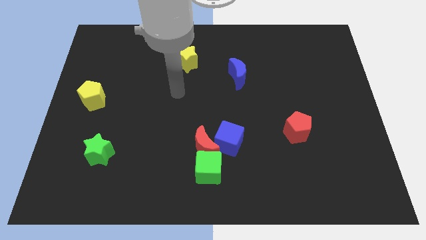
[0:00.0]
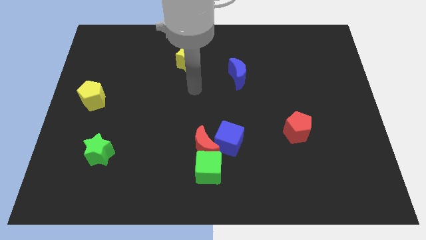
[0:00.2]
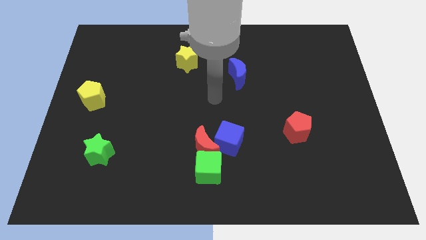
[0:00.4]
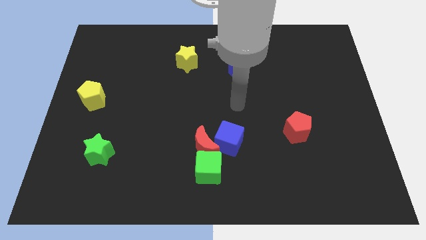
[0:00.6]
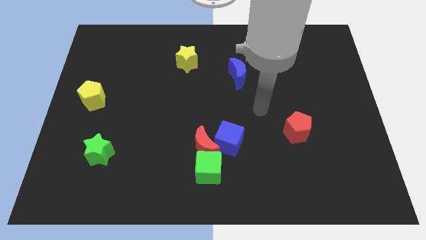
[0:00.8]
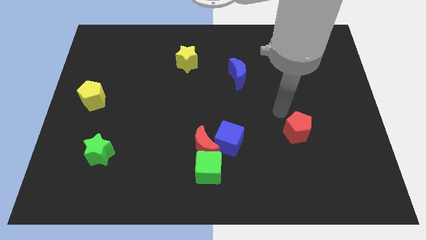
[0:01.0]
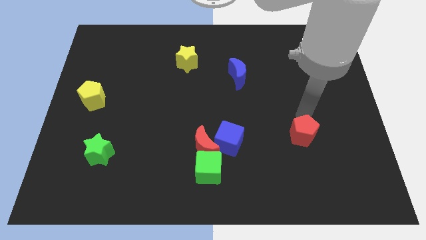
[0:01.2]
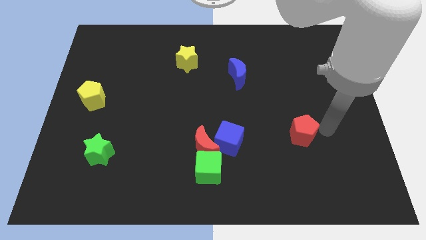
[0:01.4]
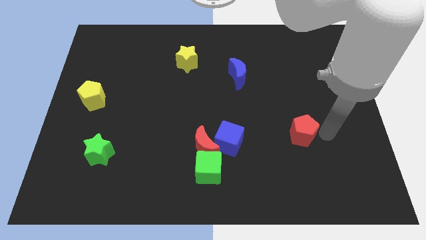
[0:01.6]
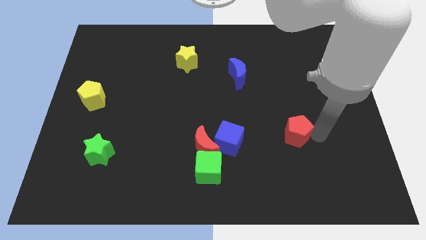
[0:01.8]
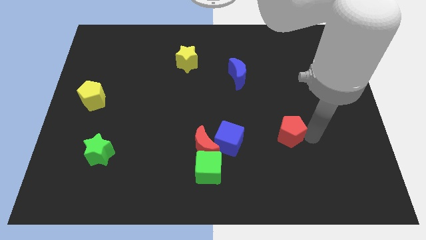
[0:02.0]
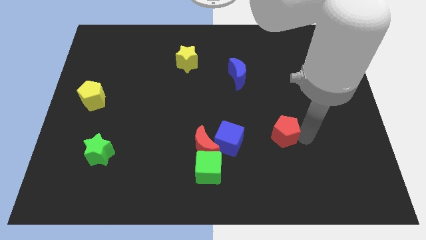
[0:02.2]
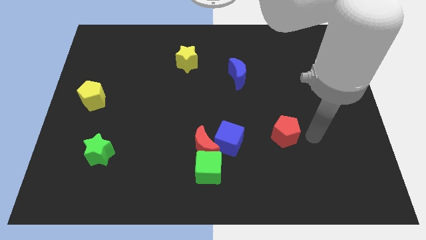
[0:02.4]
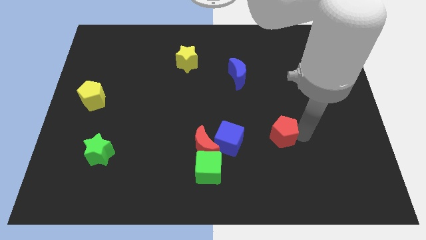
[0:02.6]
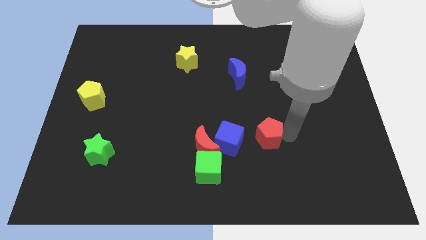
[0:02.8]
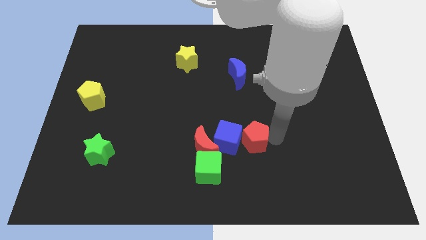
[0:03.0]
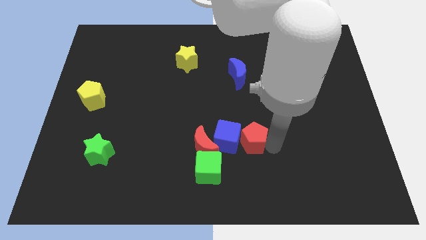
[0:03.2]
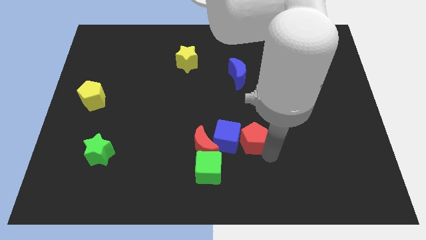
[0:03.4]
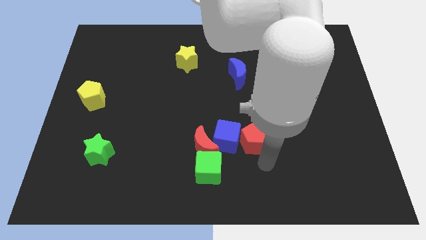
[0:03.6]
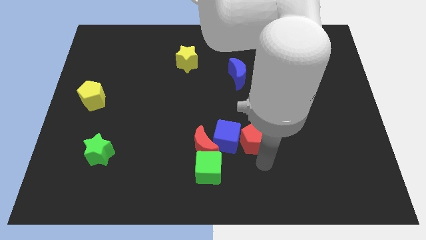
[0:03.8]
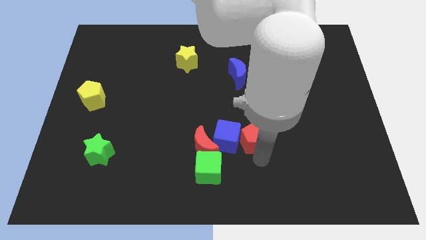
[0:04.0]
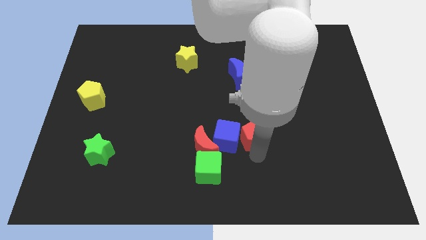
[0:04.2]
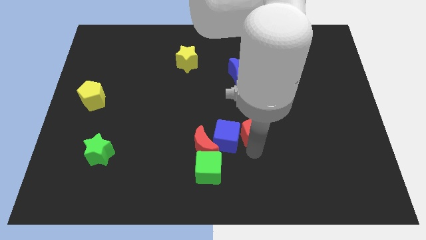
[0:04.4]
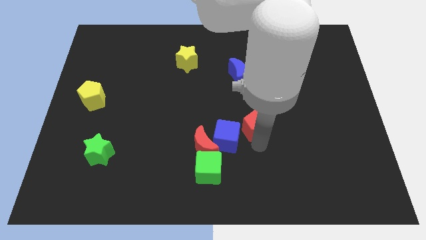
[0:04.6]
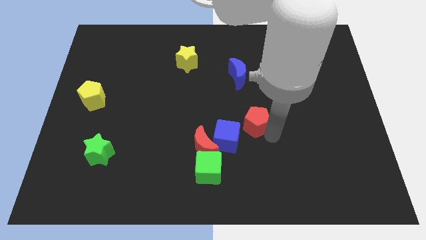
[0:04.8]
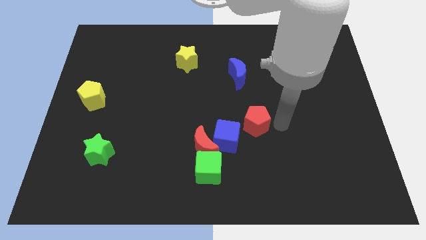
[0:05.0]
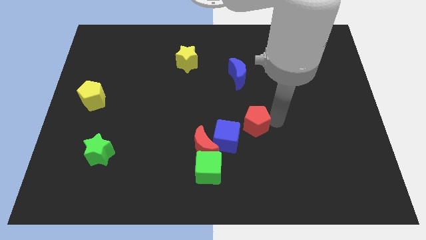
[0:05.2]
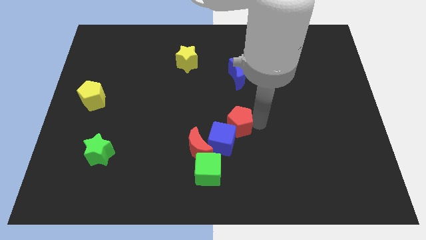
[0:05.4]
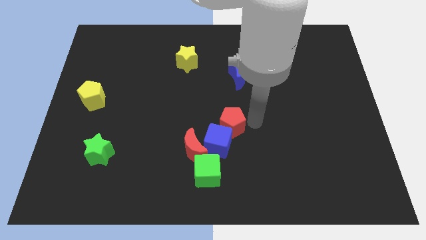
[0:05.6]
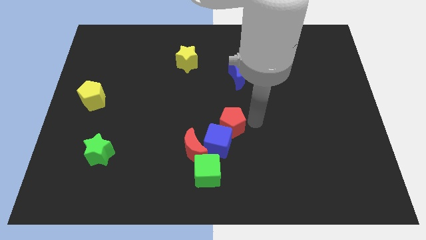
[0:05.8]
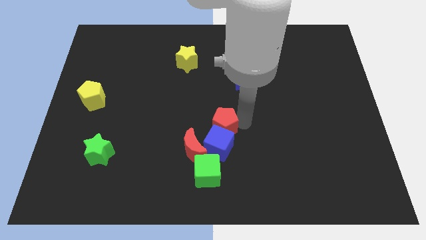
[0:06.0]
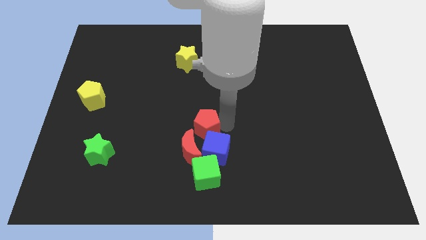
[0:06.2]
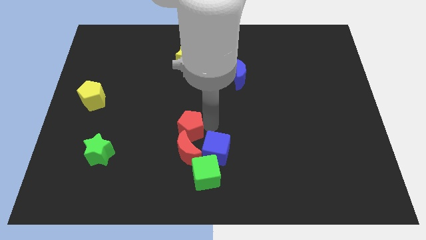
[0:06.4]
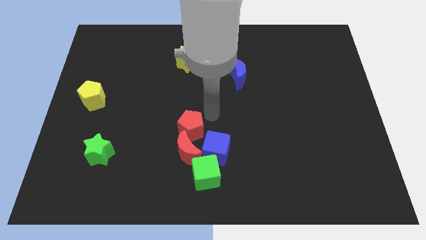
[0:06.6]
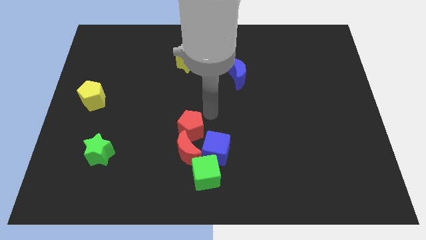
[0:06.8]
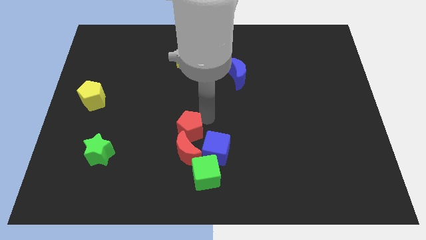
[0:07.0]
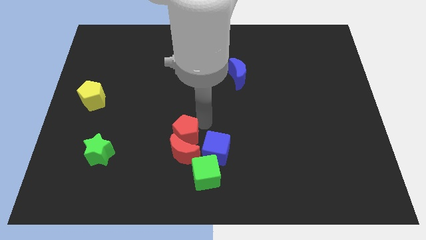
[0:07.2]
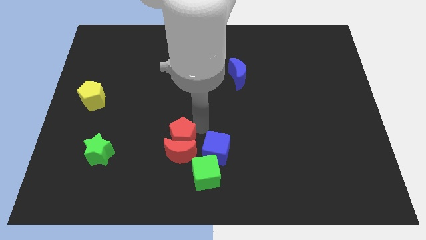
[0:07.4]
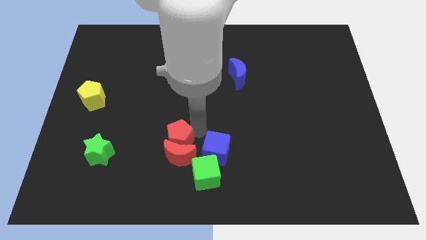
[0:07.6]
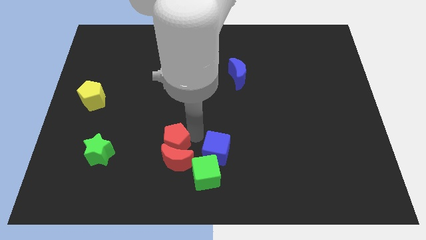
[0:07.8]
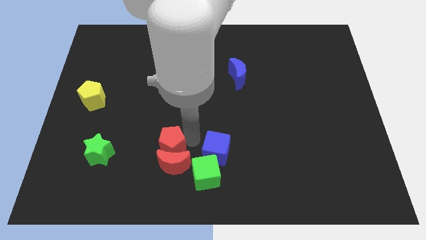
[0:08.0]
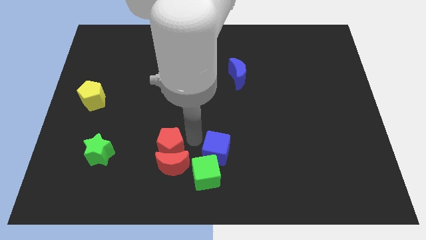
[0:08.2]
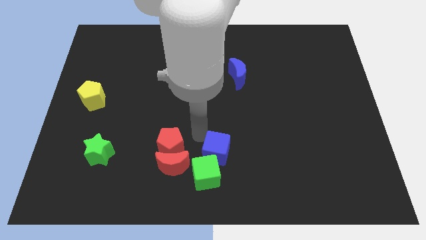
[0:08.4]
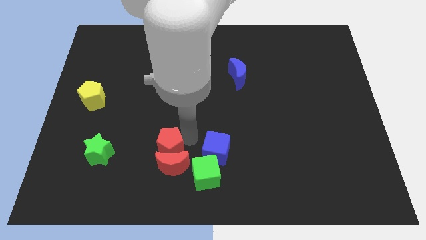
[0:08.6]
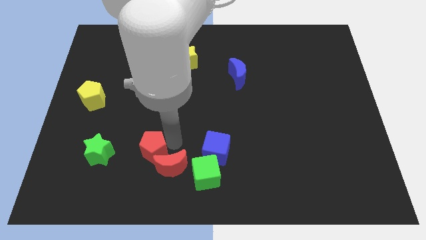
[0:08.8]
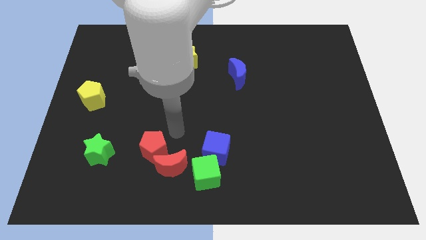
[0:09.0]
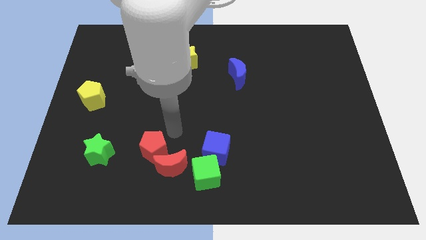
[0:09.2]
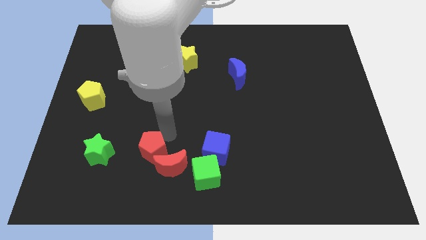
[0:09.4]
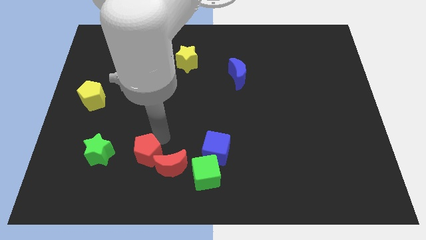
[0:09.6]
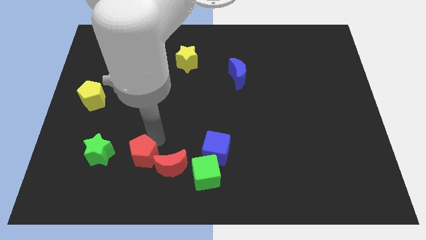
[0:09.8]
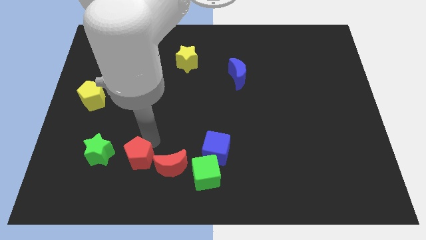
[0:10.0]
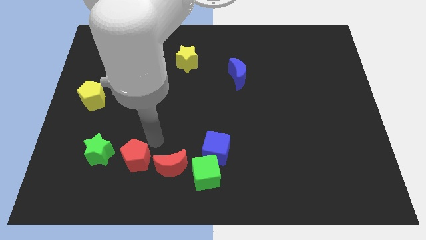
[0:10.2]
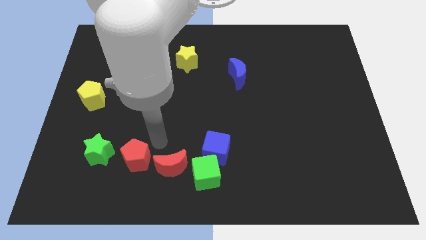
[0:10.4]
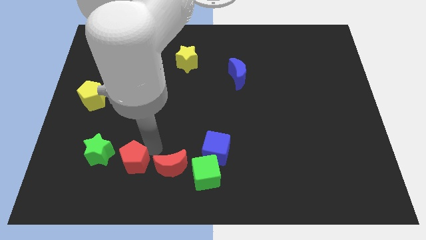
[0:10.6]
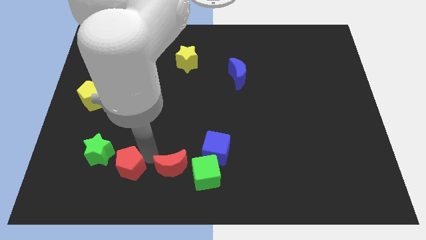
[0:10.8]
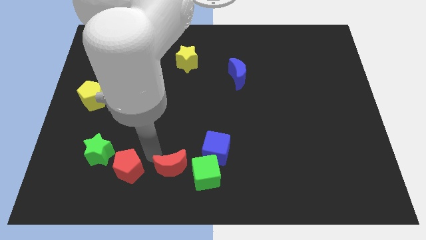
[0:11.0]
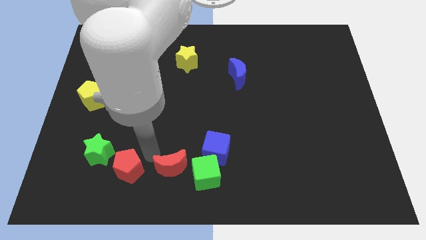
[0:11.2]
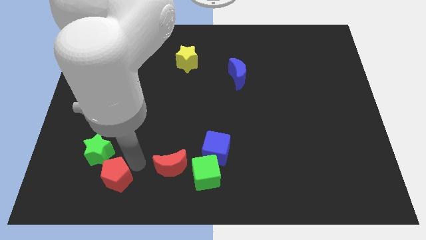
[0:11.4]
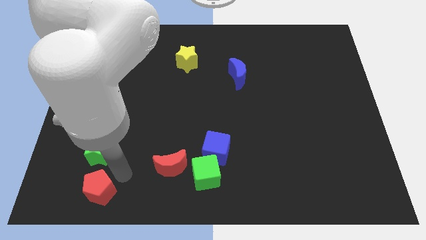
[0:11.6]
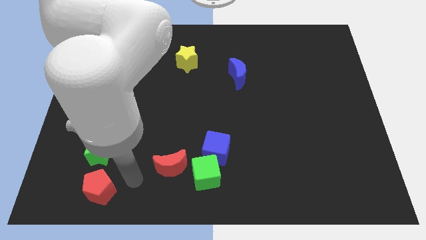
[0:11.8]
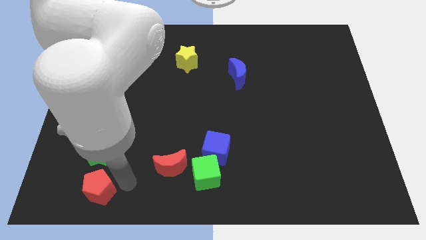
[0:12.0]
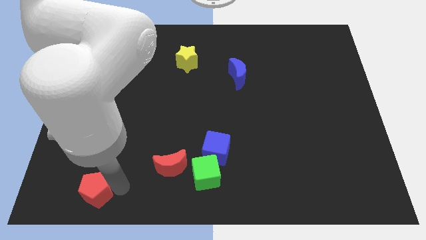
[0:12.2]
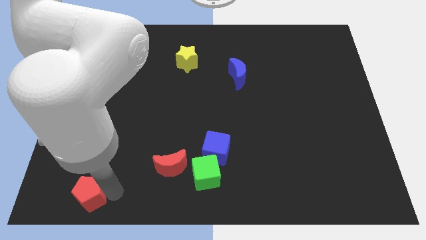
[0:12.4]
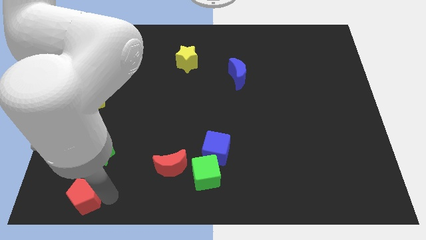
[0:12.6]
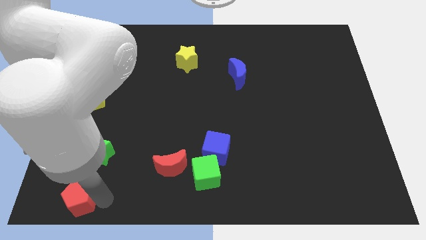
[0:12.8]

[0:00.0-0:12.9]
put the red pentagon to the bottom left corner
